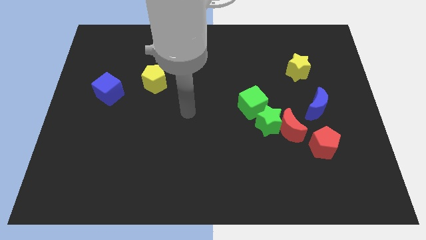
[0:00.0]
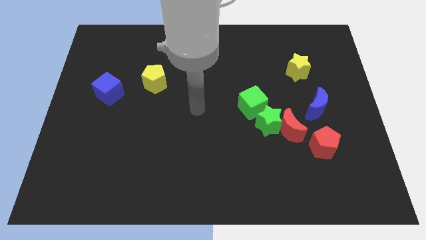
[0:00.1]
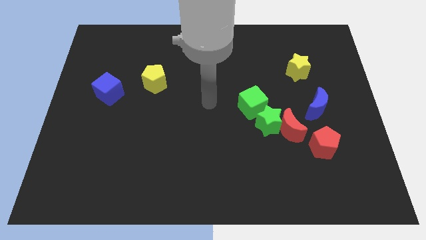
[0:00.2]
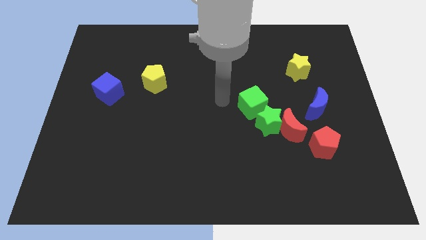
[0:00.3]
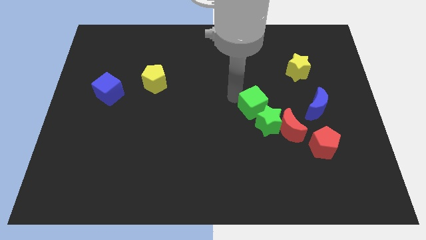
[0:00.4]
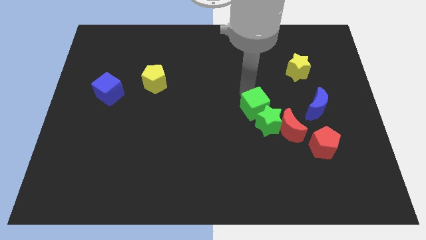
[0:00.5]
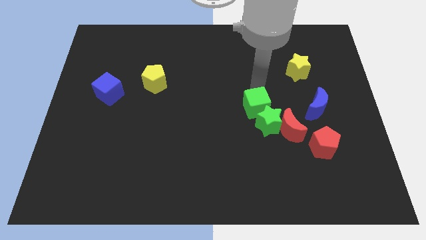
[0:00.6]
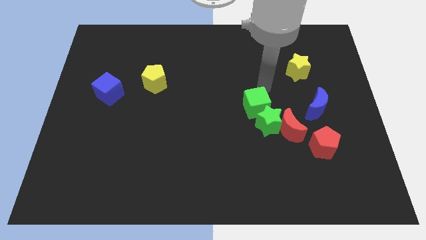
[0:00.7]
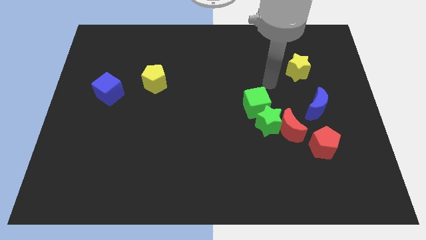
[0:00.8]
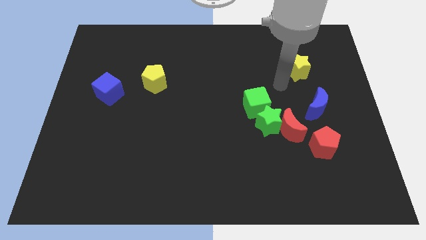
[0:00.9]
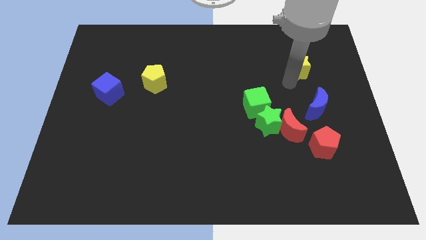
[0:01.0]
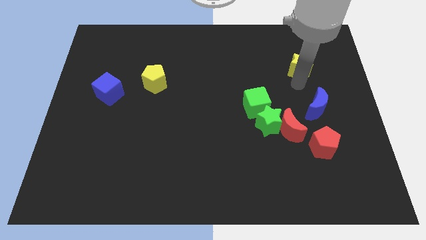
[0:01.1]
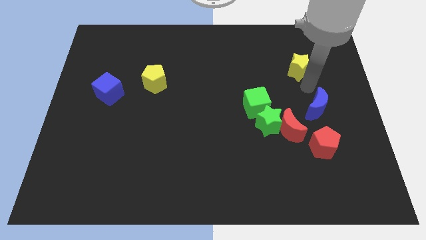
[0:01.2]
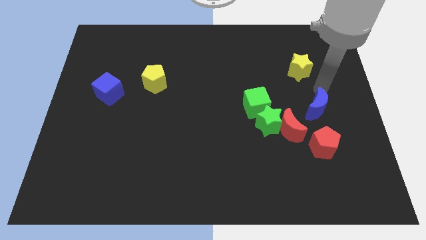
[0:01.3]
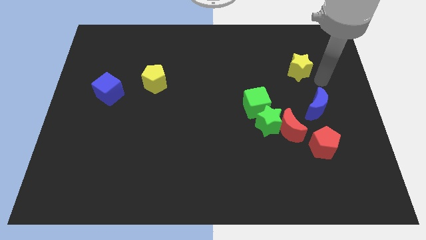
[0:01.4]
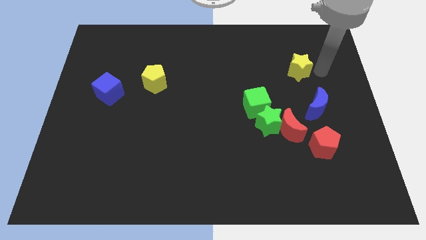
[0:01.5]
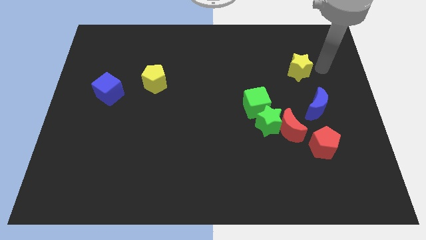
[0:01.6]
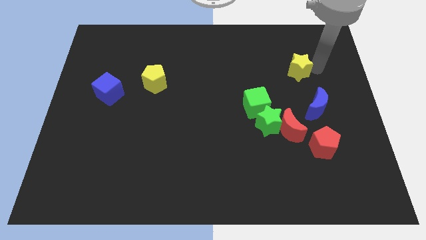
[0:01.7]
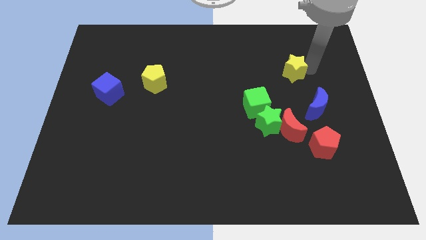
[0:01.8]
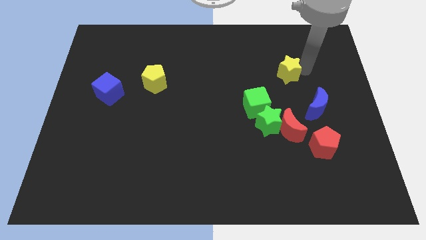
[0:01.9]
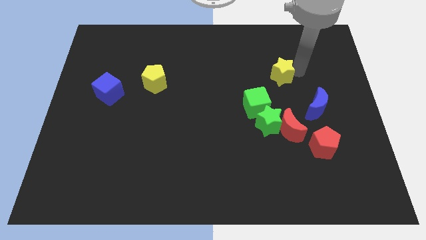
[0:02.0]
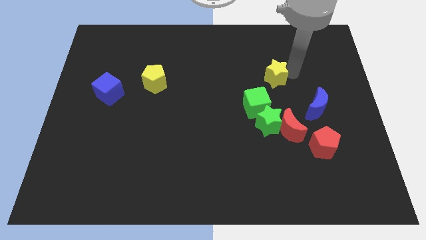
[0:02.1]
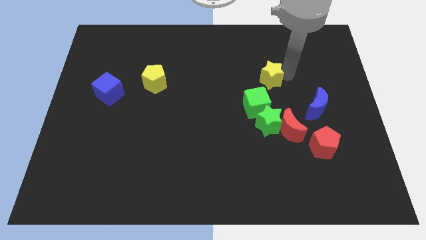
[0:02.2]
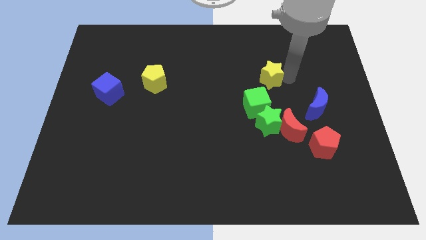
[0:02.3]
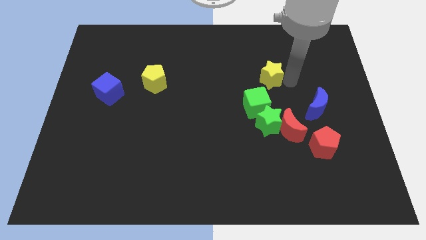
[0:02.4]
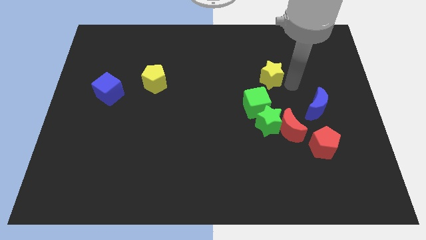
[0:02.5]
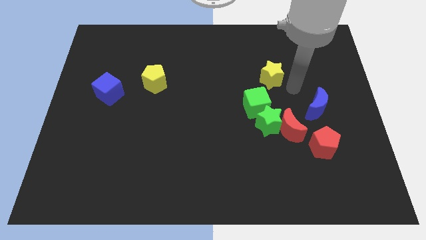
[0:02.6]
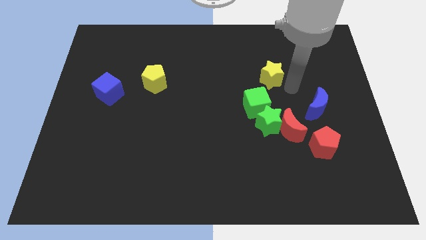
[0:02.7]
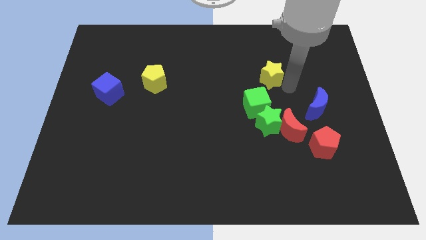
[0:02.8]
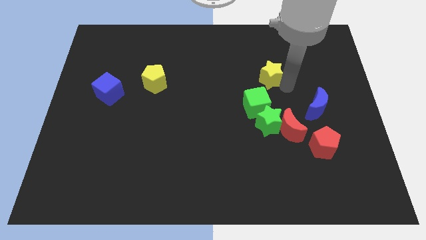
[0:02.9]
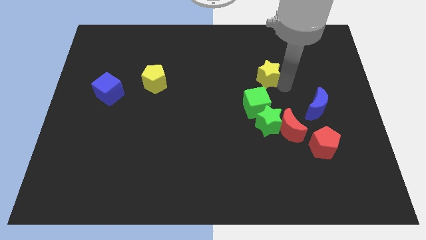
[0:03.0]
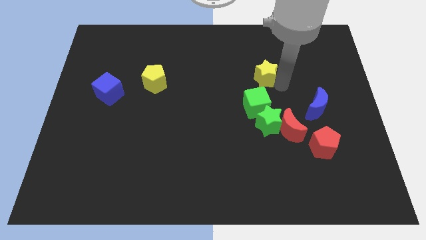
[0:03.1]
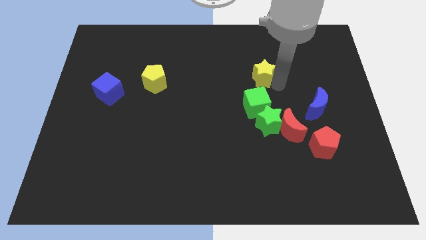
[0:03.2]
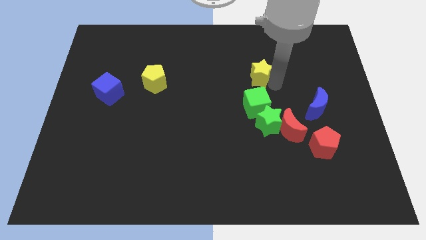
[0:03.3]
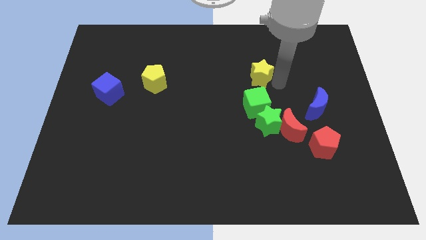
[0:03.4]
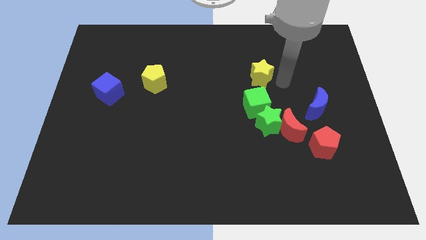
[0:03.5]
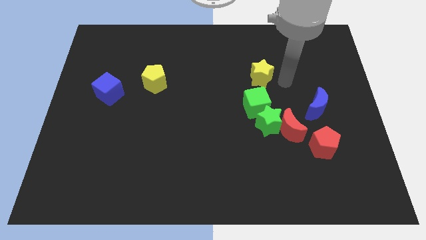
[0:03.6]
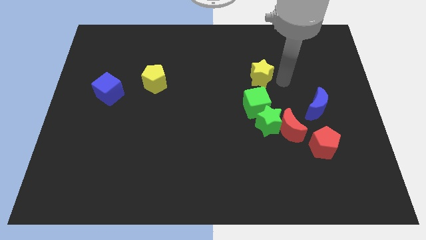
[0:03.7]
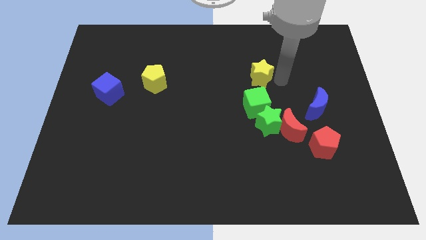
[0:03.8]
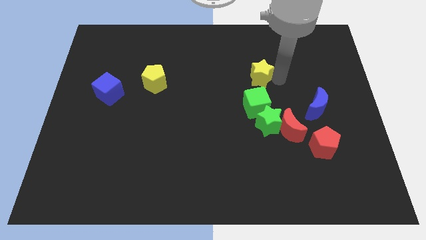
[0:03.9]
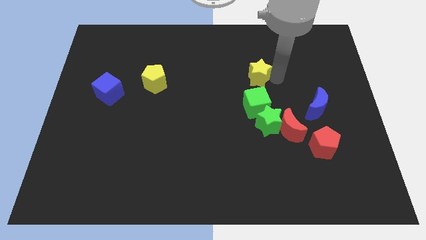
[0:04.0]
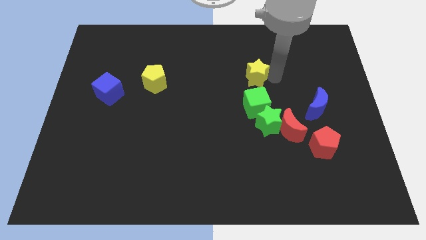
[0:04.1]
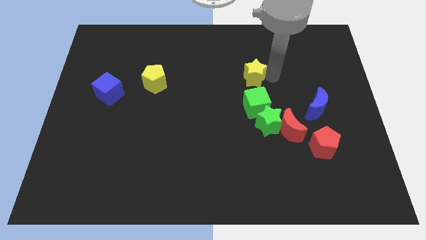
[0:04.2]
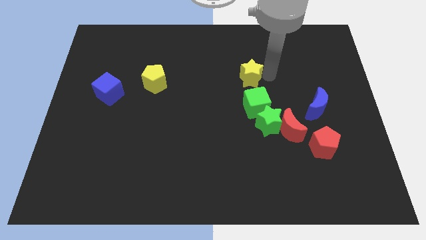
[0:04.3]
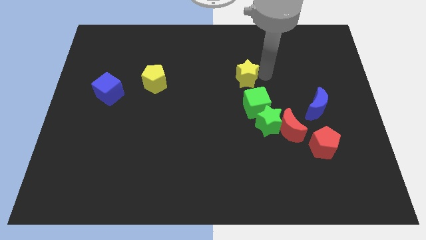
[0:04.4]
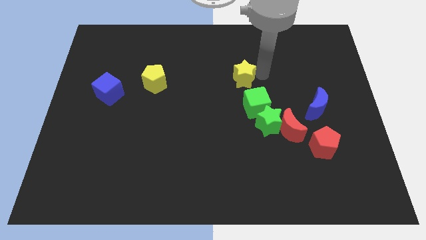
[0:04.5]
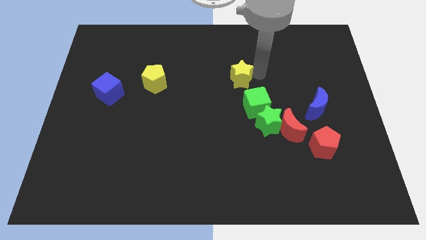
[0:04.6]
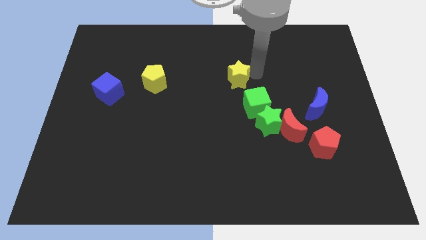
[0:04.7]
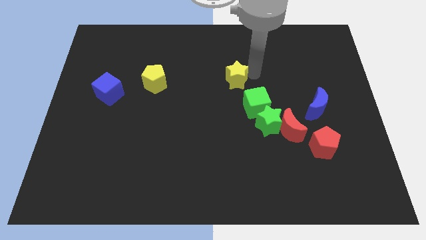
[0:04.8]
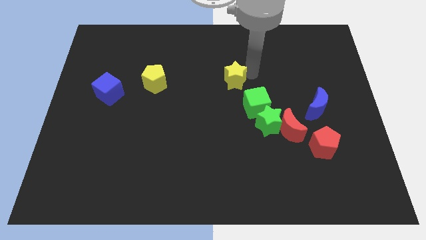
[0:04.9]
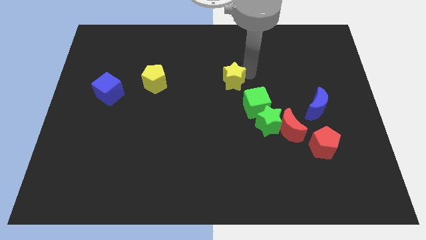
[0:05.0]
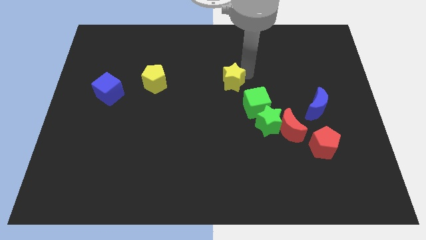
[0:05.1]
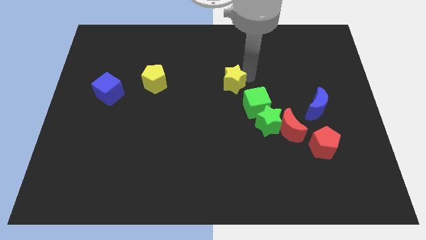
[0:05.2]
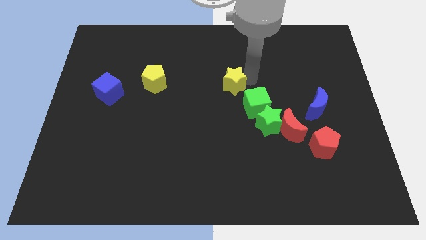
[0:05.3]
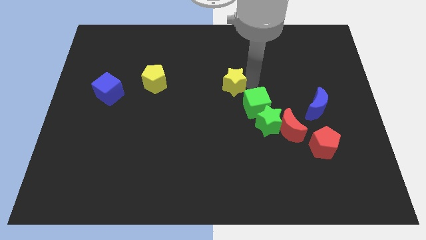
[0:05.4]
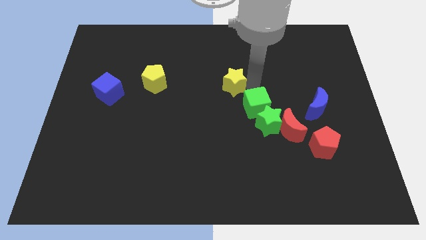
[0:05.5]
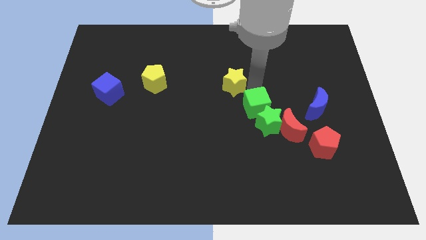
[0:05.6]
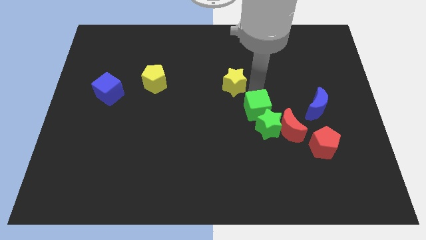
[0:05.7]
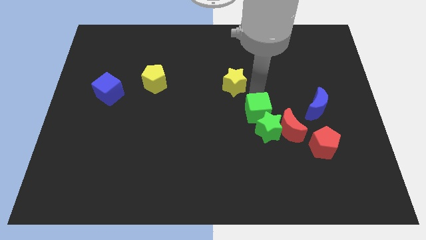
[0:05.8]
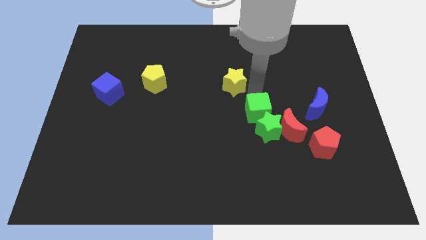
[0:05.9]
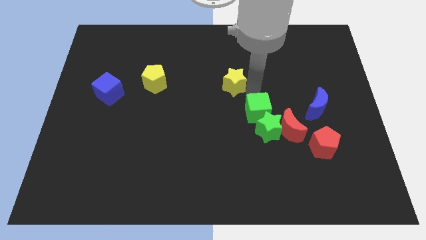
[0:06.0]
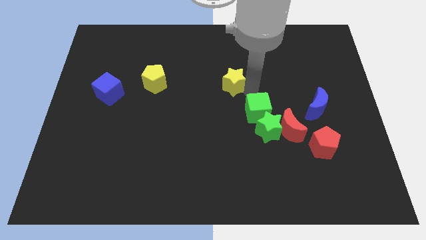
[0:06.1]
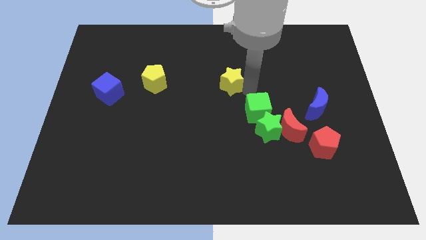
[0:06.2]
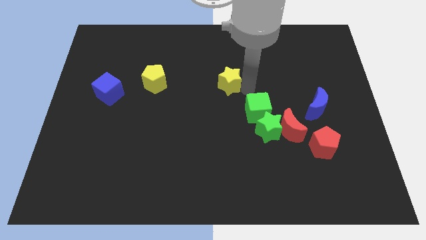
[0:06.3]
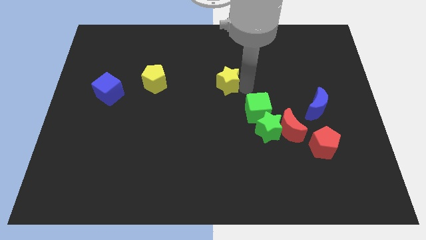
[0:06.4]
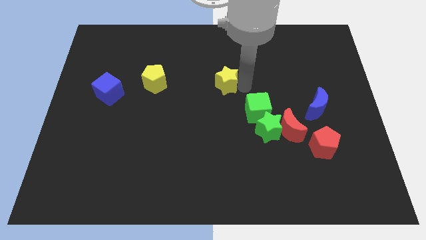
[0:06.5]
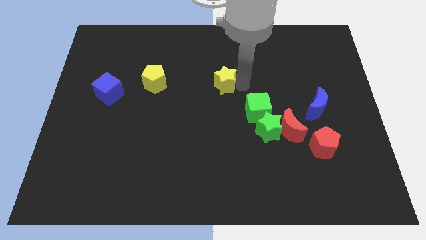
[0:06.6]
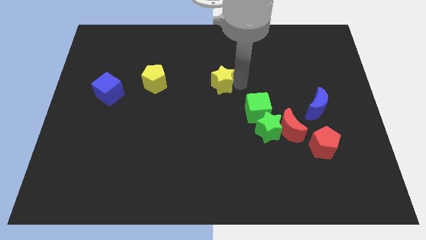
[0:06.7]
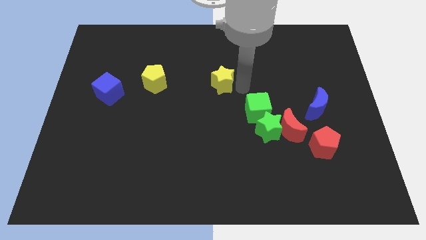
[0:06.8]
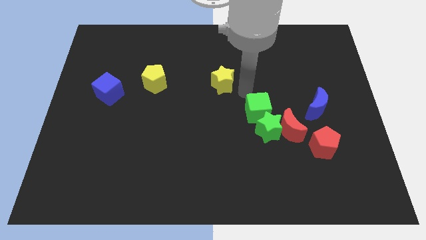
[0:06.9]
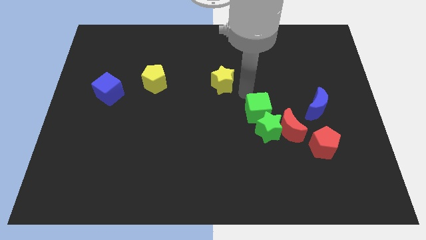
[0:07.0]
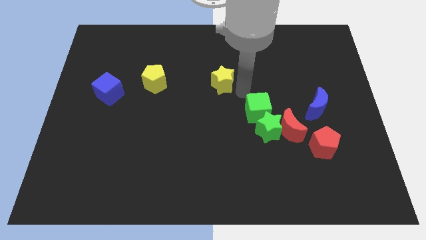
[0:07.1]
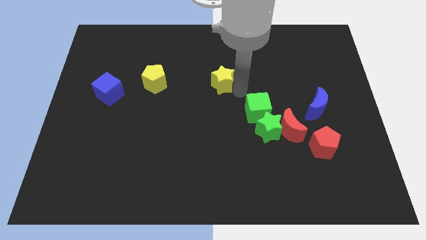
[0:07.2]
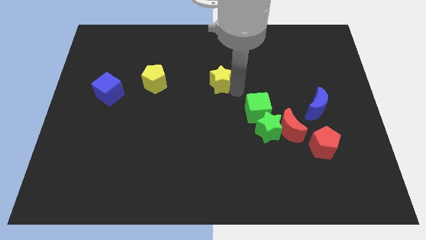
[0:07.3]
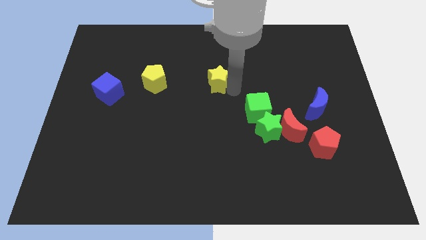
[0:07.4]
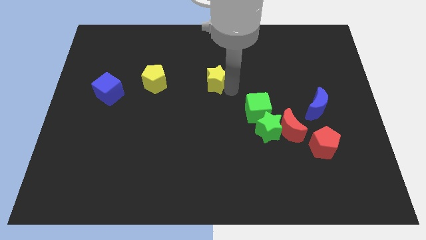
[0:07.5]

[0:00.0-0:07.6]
slide the yellow star to the left
